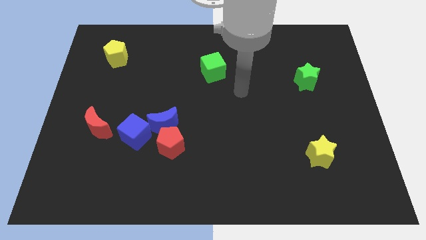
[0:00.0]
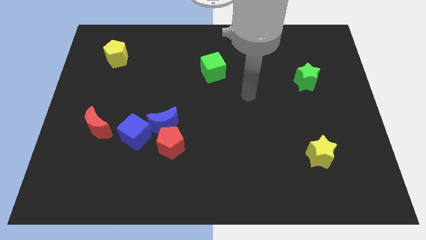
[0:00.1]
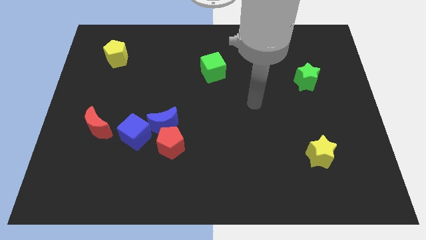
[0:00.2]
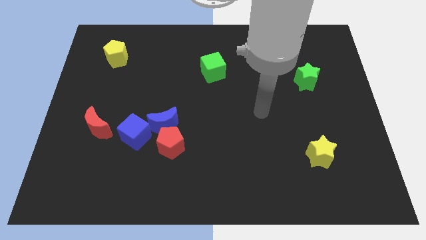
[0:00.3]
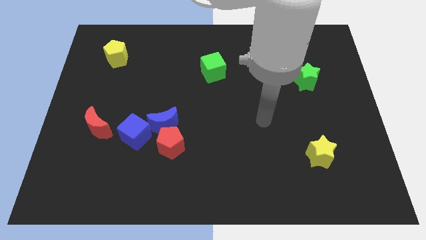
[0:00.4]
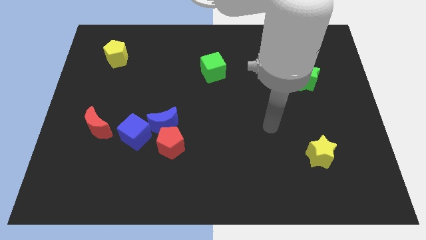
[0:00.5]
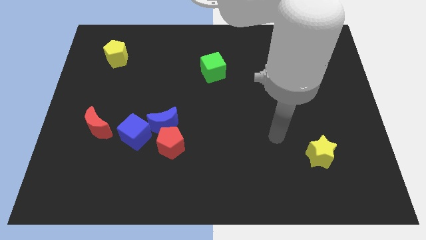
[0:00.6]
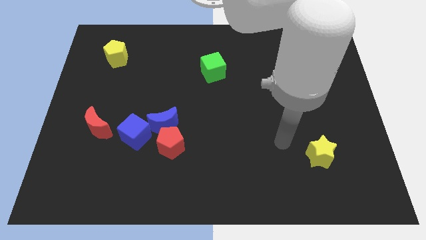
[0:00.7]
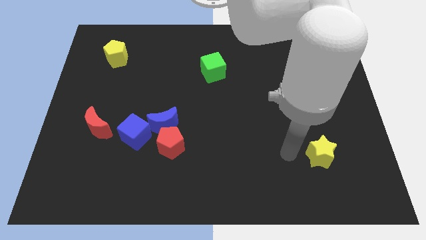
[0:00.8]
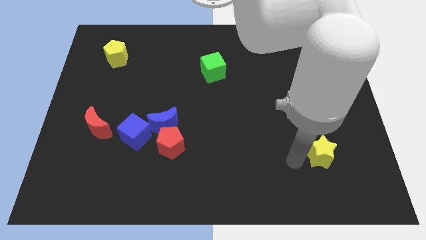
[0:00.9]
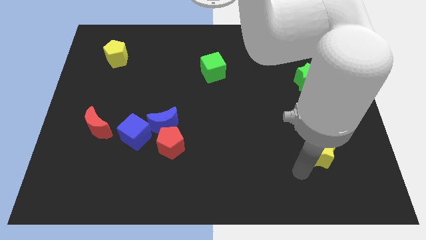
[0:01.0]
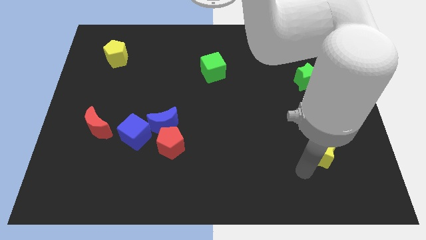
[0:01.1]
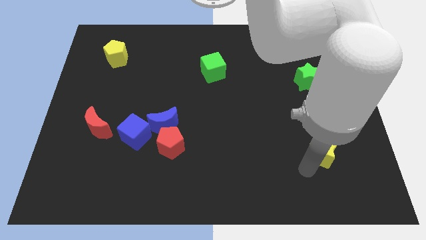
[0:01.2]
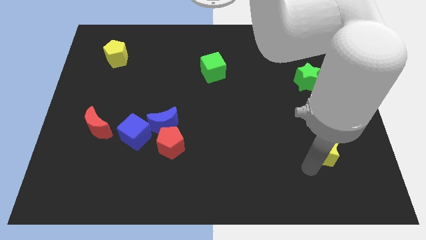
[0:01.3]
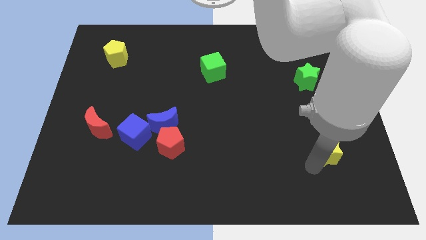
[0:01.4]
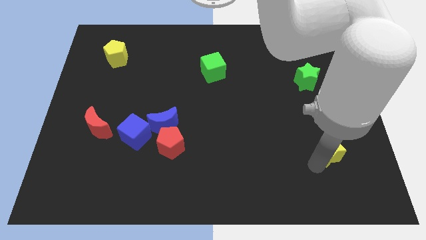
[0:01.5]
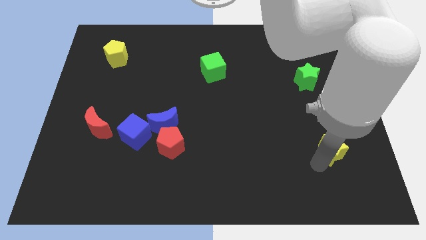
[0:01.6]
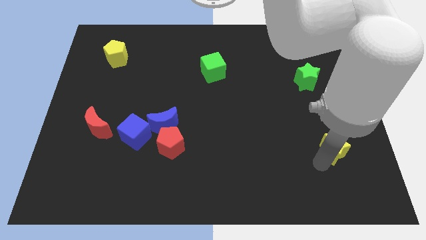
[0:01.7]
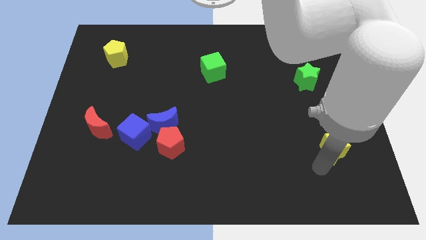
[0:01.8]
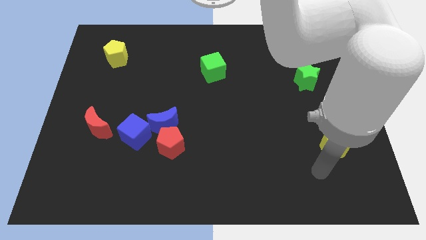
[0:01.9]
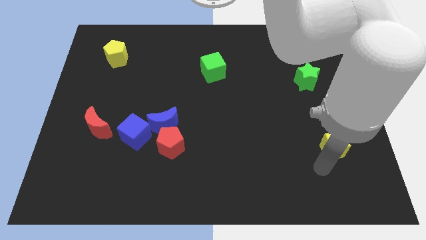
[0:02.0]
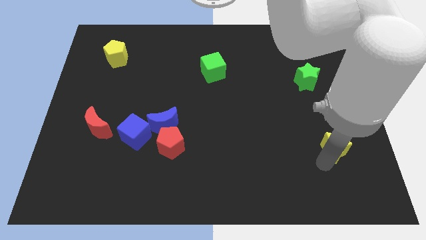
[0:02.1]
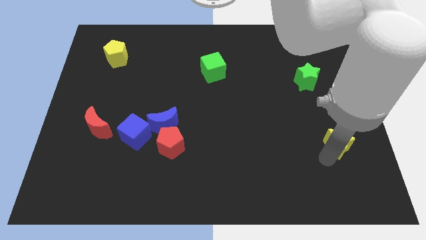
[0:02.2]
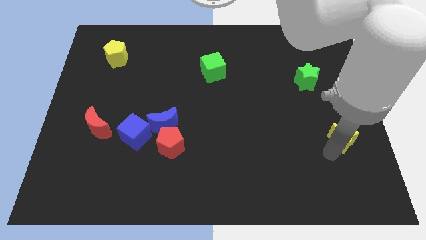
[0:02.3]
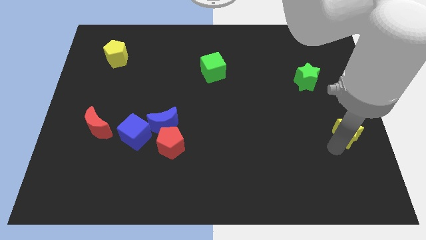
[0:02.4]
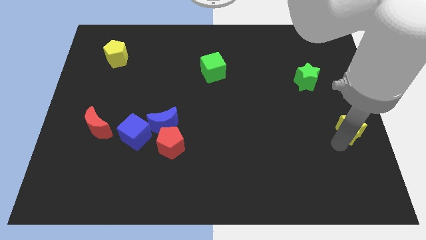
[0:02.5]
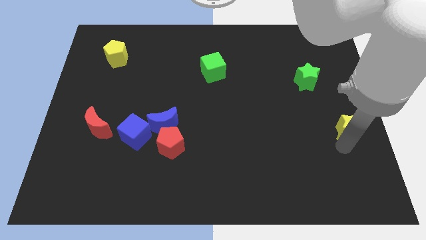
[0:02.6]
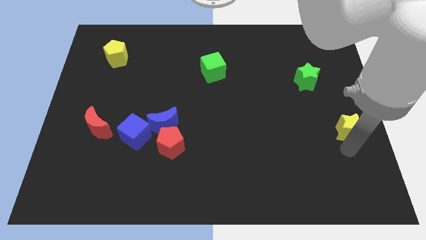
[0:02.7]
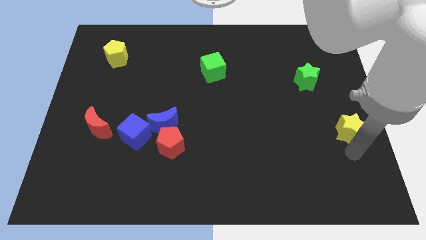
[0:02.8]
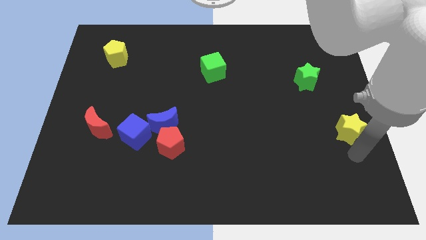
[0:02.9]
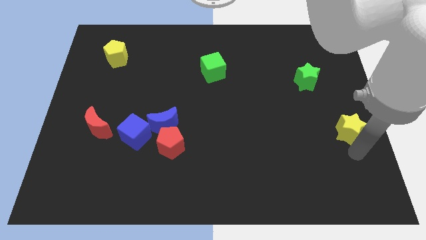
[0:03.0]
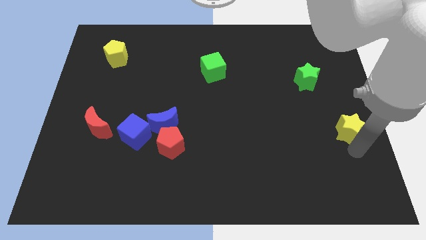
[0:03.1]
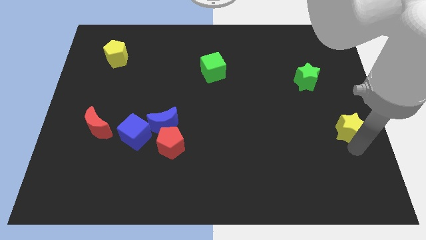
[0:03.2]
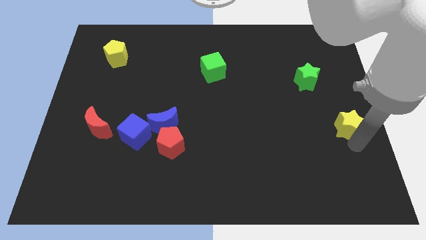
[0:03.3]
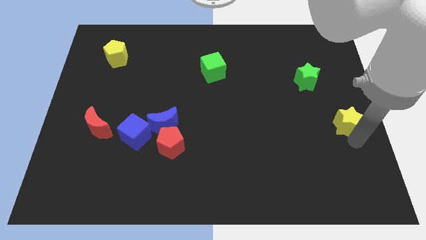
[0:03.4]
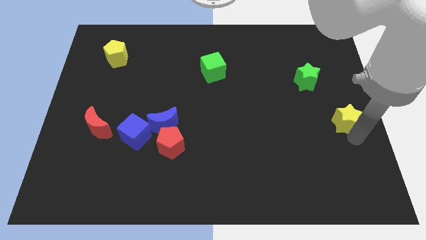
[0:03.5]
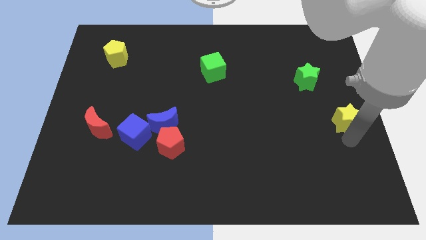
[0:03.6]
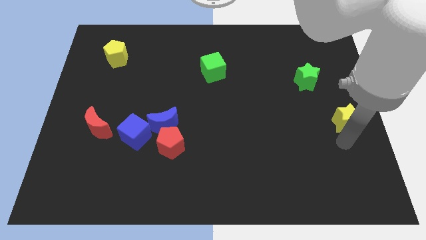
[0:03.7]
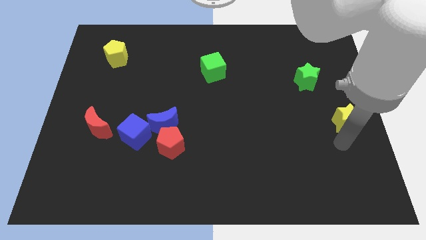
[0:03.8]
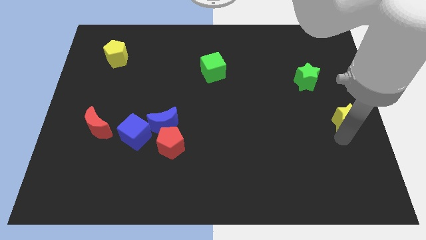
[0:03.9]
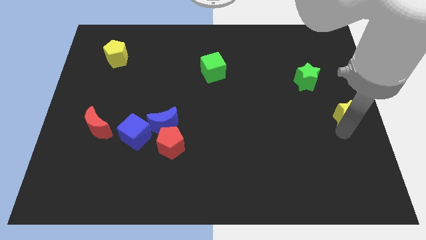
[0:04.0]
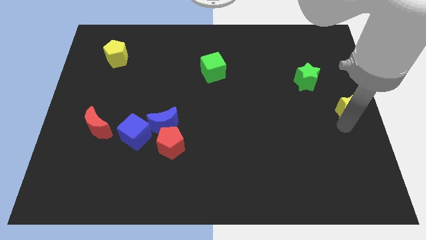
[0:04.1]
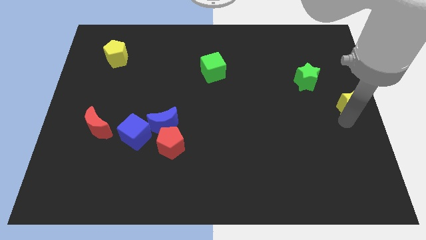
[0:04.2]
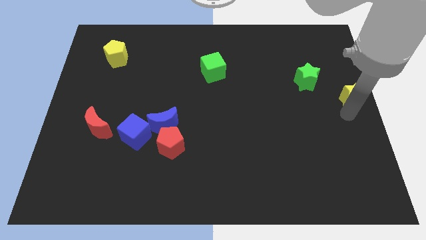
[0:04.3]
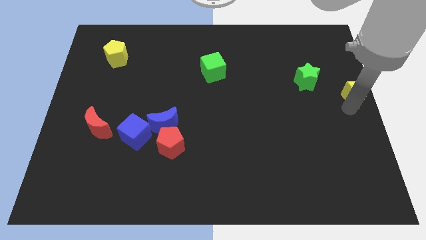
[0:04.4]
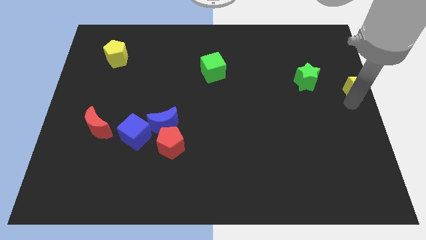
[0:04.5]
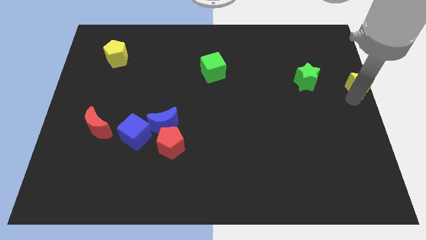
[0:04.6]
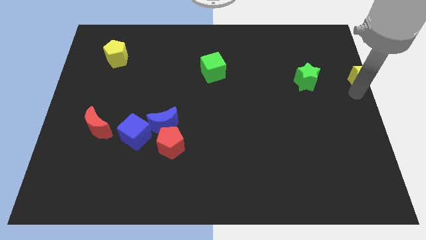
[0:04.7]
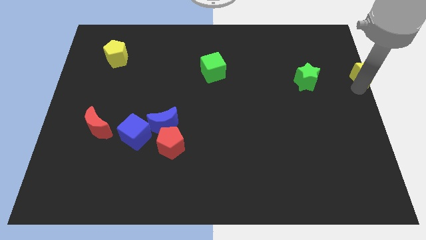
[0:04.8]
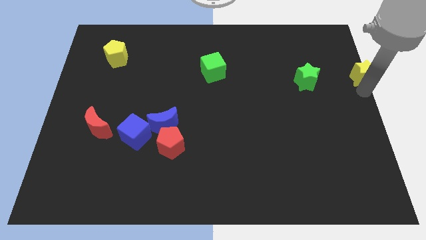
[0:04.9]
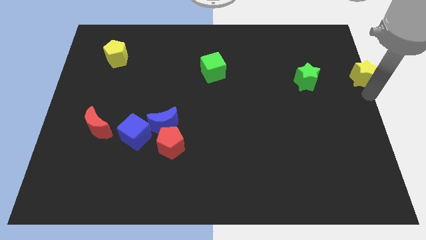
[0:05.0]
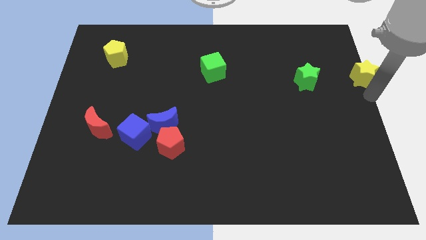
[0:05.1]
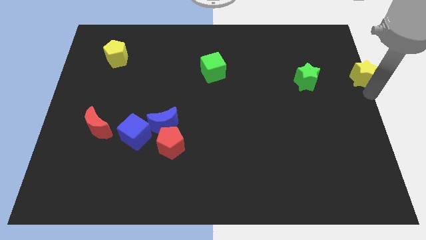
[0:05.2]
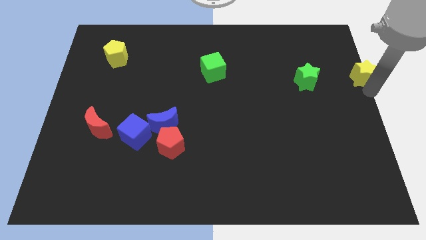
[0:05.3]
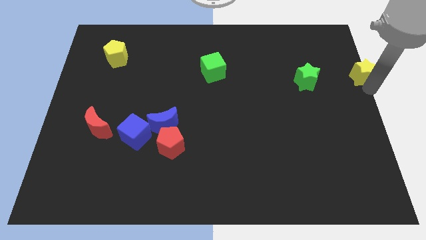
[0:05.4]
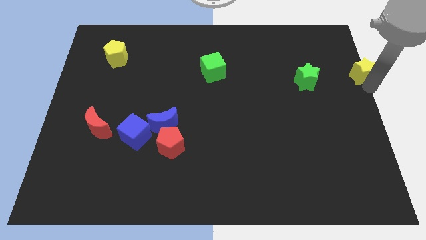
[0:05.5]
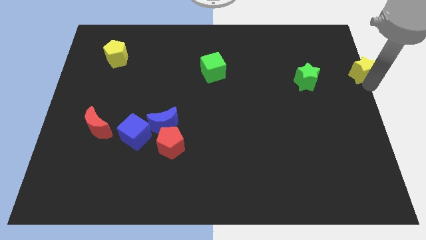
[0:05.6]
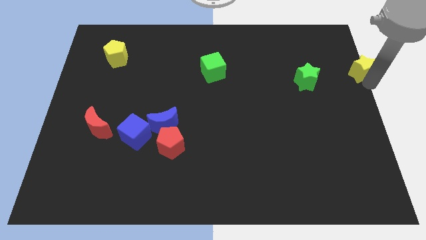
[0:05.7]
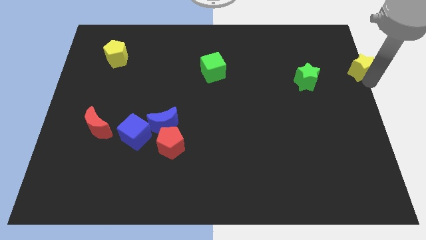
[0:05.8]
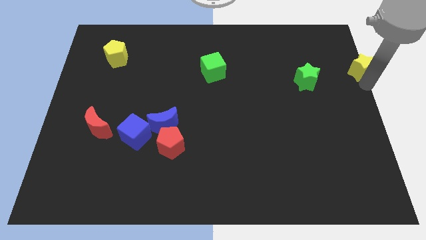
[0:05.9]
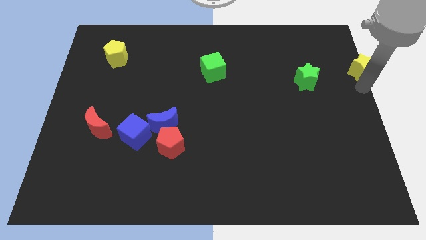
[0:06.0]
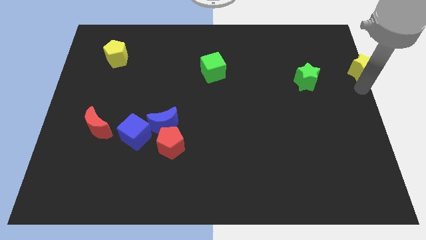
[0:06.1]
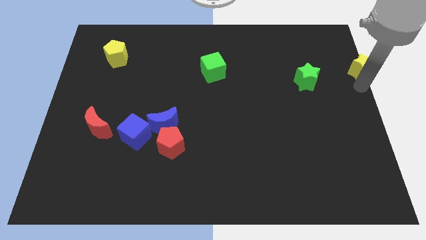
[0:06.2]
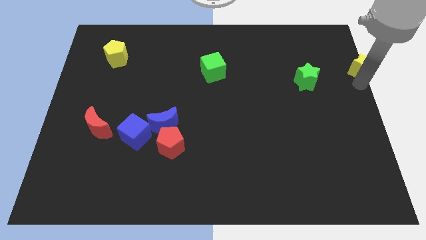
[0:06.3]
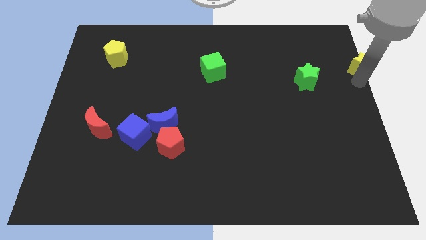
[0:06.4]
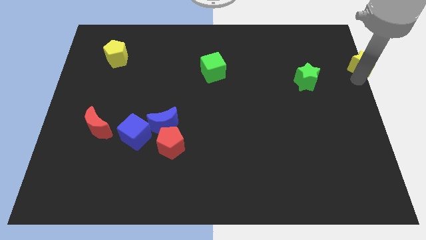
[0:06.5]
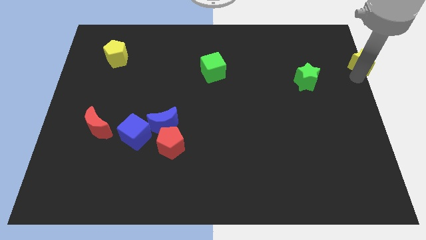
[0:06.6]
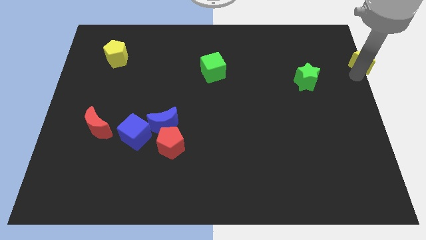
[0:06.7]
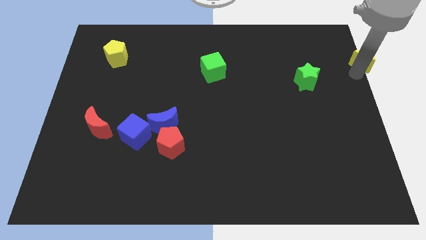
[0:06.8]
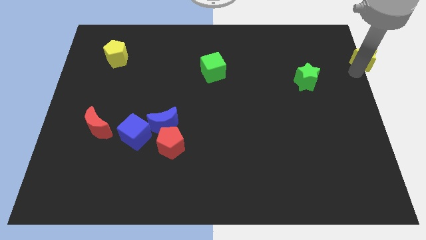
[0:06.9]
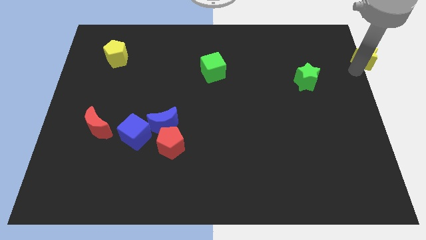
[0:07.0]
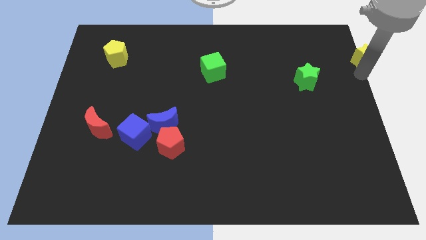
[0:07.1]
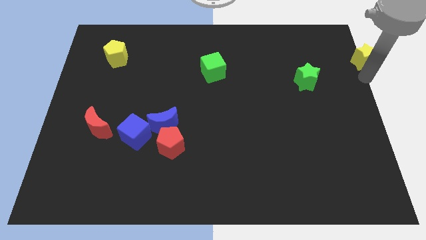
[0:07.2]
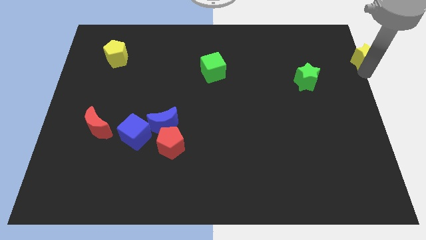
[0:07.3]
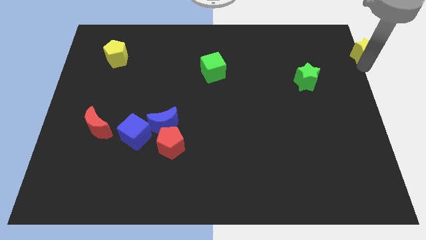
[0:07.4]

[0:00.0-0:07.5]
slide the yellow star to the upper right corner
